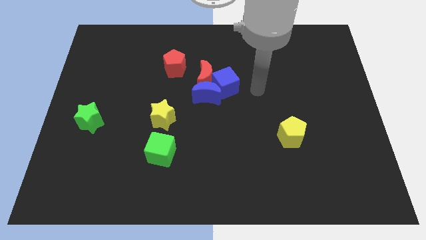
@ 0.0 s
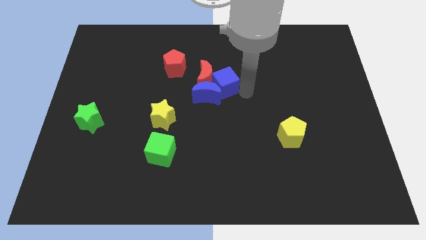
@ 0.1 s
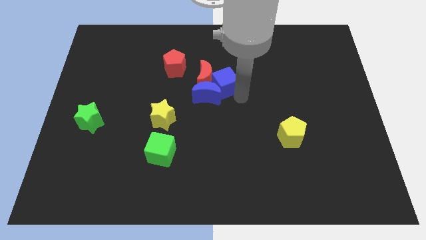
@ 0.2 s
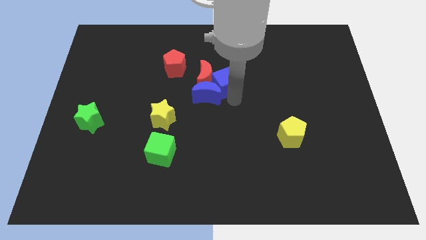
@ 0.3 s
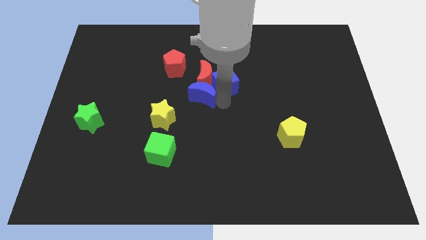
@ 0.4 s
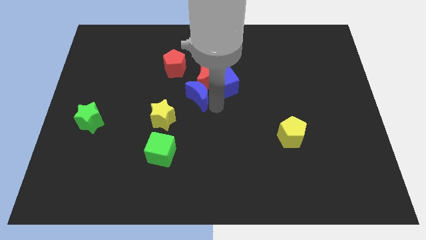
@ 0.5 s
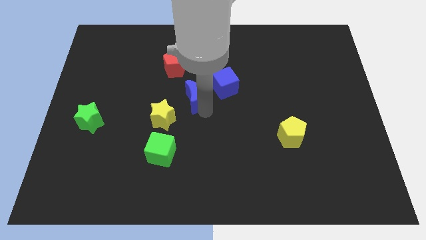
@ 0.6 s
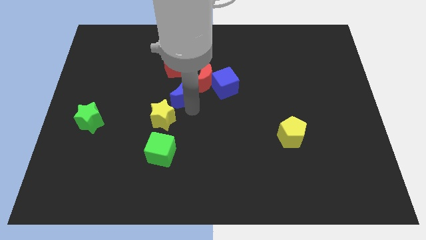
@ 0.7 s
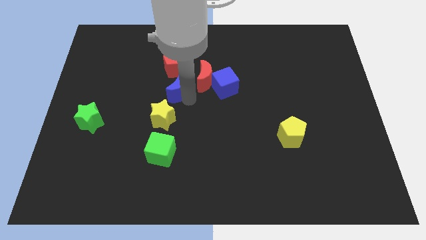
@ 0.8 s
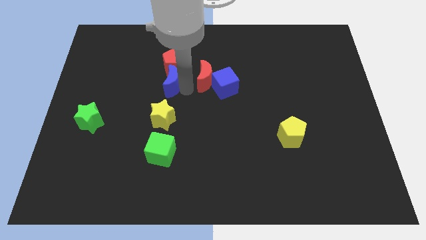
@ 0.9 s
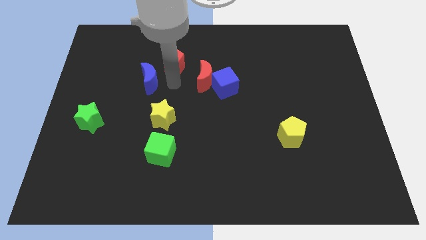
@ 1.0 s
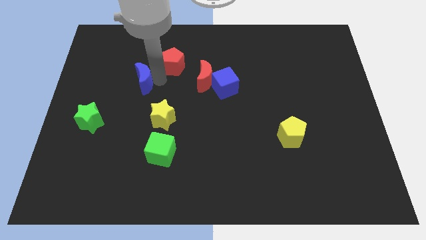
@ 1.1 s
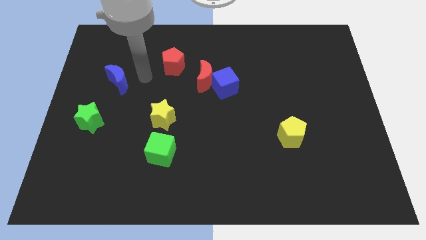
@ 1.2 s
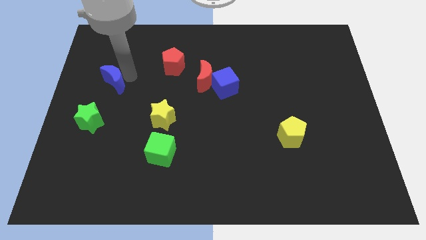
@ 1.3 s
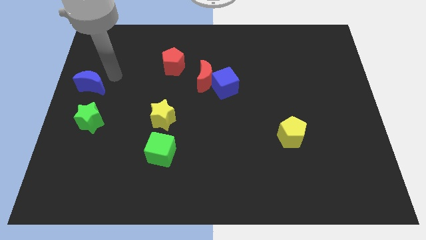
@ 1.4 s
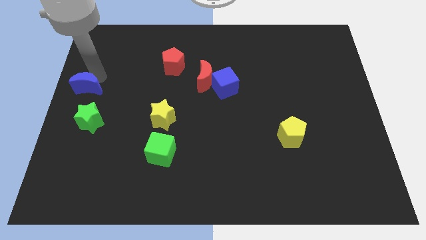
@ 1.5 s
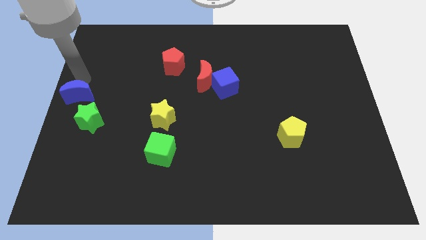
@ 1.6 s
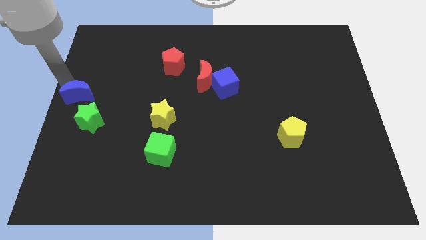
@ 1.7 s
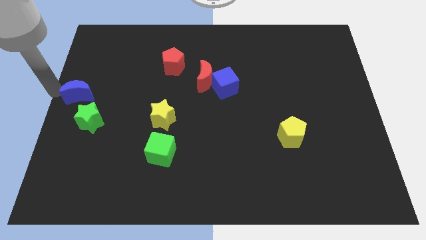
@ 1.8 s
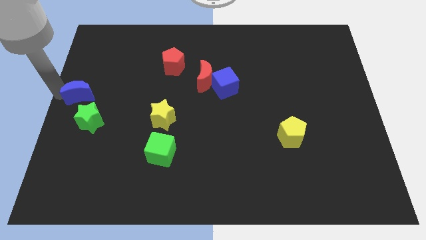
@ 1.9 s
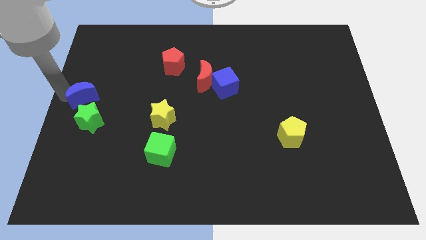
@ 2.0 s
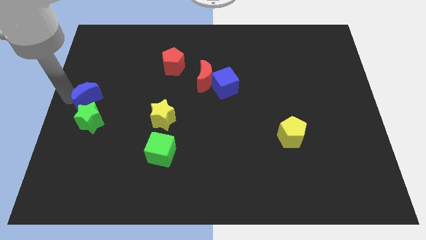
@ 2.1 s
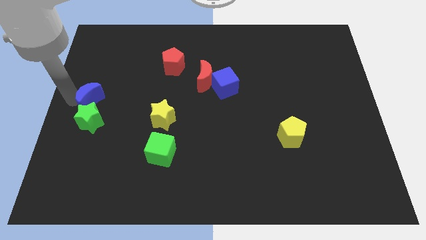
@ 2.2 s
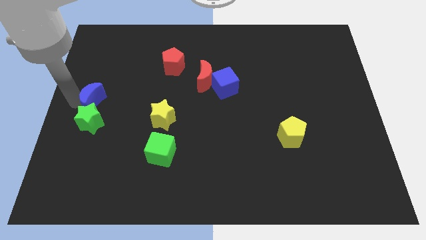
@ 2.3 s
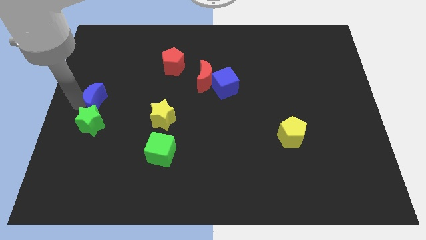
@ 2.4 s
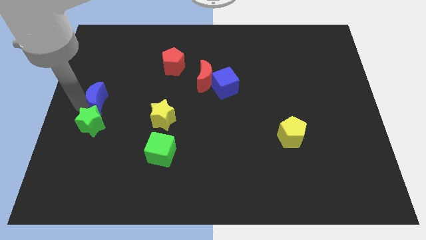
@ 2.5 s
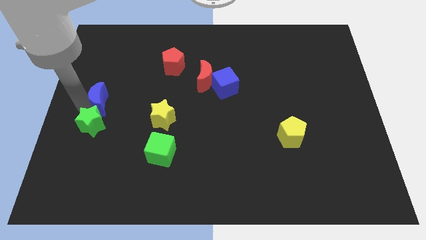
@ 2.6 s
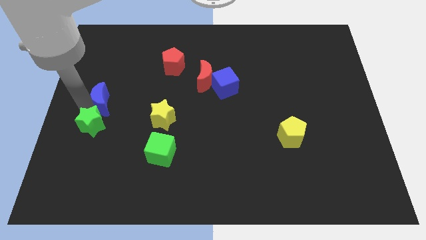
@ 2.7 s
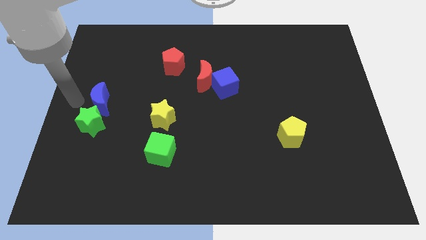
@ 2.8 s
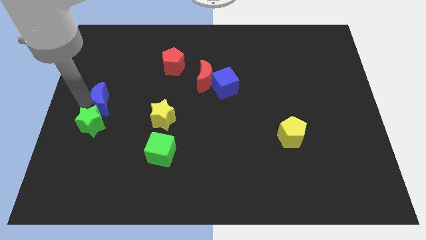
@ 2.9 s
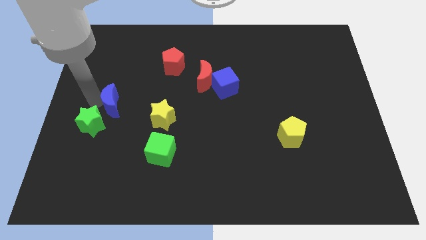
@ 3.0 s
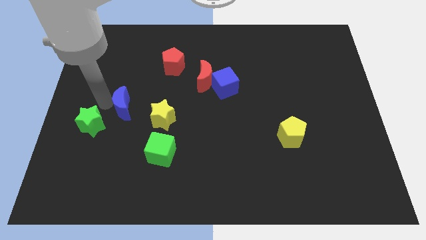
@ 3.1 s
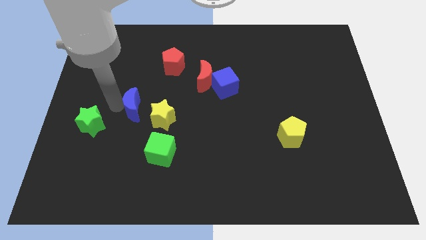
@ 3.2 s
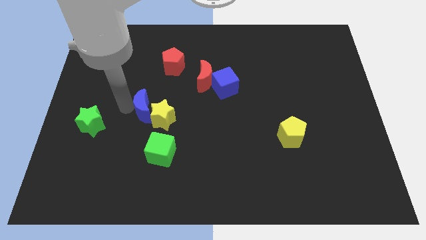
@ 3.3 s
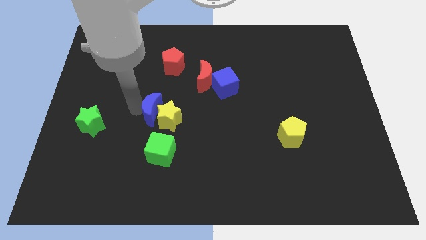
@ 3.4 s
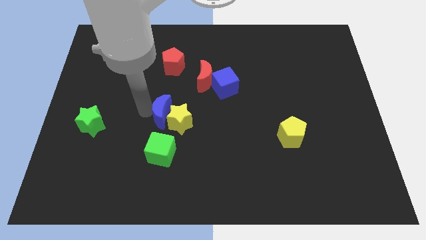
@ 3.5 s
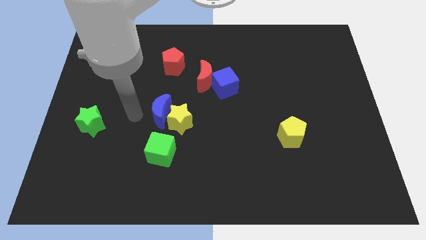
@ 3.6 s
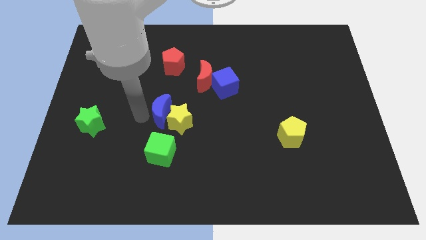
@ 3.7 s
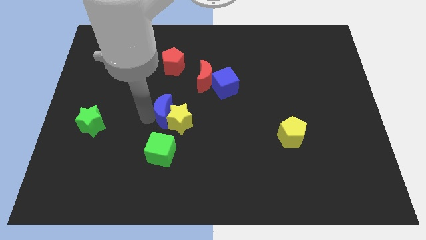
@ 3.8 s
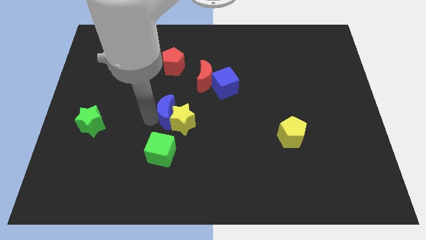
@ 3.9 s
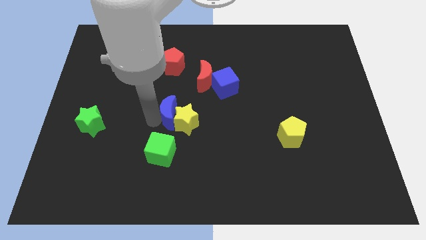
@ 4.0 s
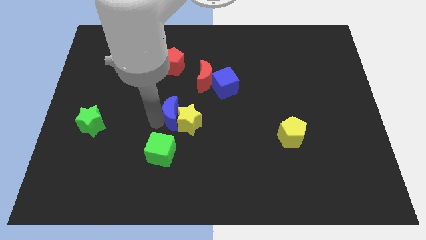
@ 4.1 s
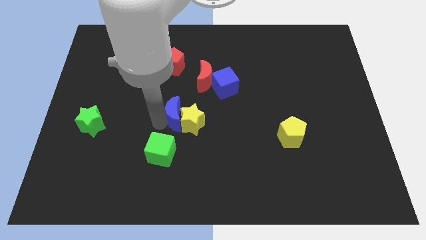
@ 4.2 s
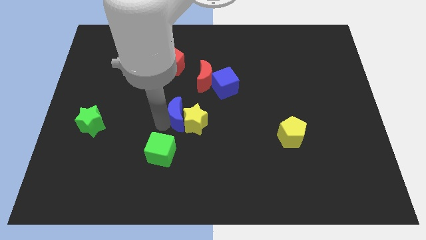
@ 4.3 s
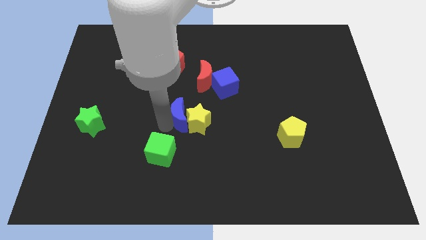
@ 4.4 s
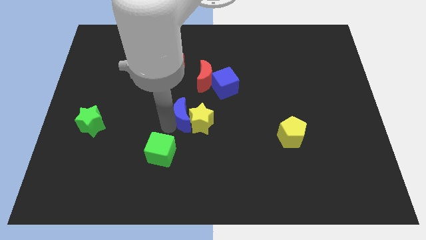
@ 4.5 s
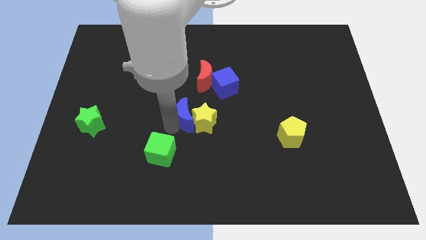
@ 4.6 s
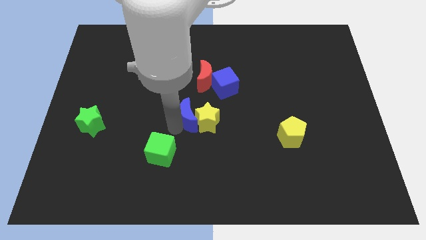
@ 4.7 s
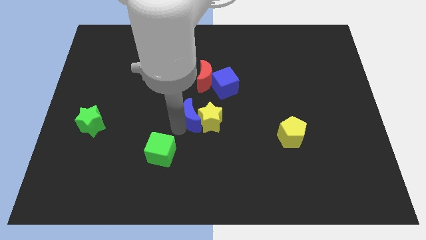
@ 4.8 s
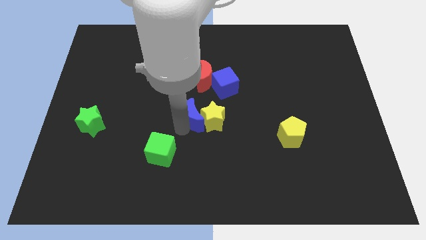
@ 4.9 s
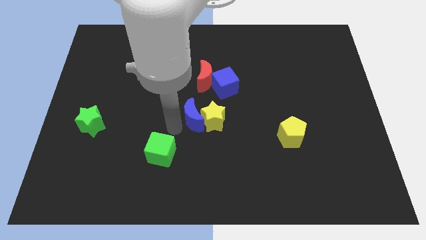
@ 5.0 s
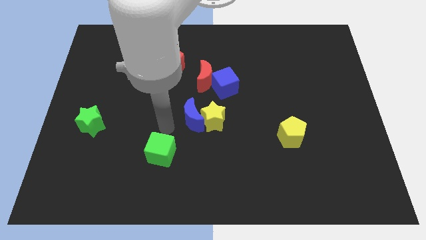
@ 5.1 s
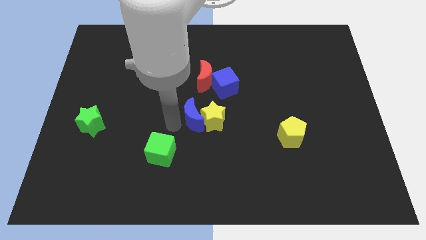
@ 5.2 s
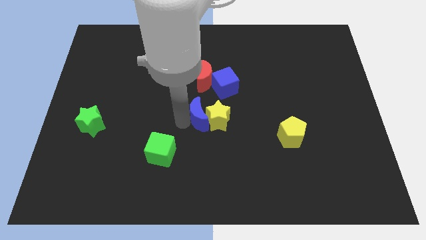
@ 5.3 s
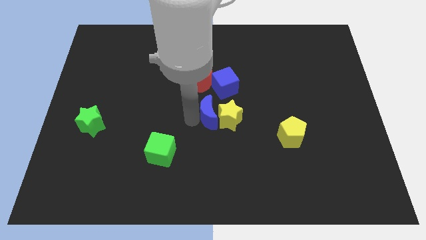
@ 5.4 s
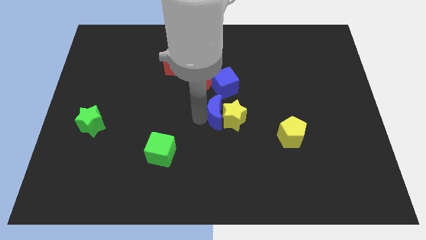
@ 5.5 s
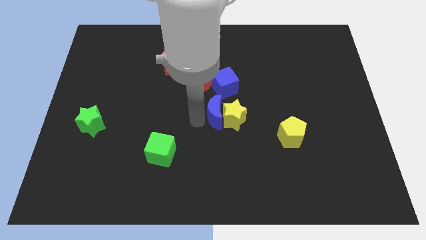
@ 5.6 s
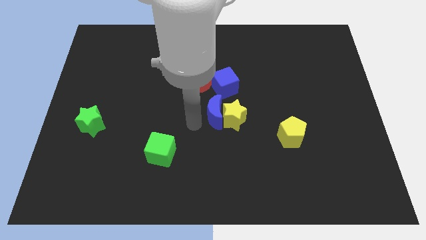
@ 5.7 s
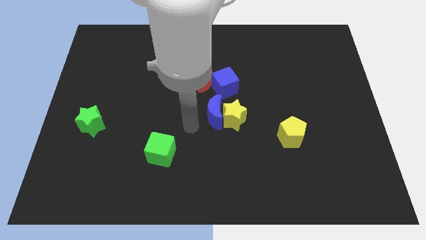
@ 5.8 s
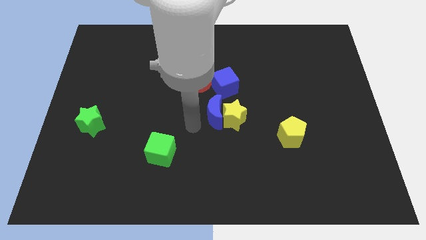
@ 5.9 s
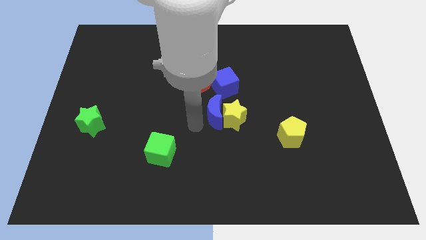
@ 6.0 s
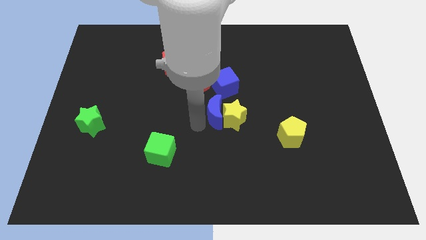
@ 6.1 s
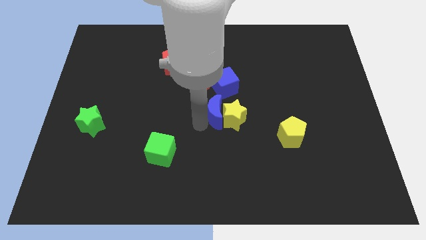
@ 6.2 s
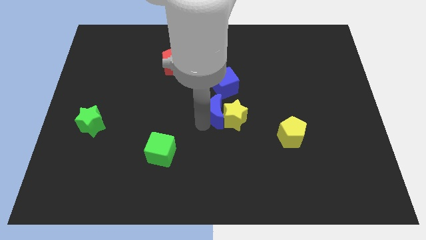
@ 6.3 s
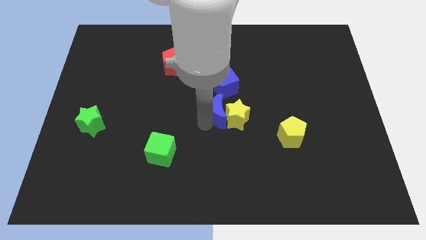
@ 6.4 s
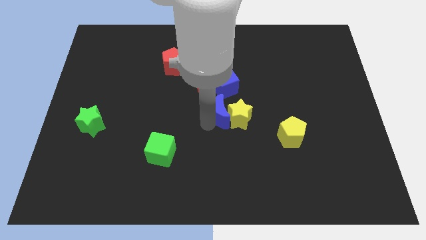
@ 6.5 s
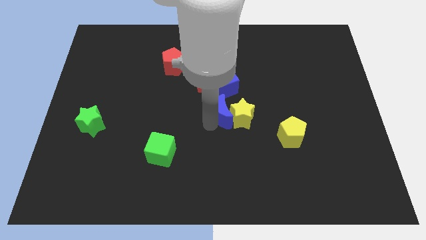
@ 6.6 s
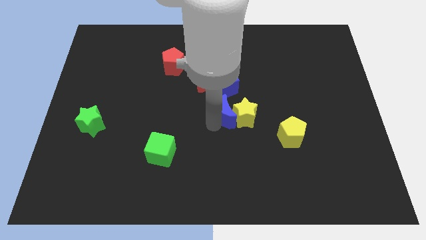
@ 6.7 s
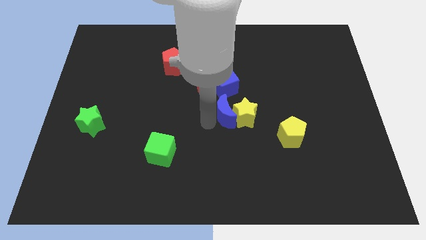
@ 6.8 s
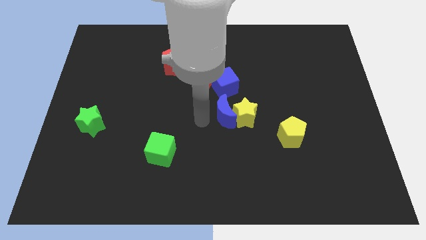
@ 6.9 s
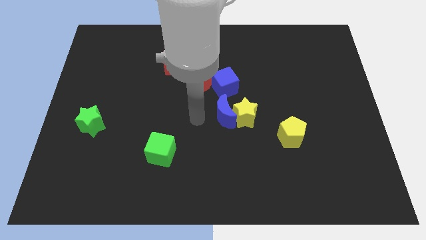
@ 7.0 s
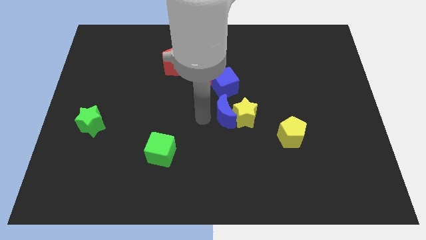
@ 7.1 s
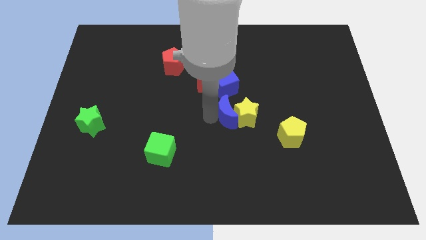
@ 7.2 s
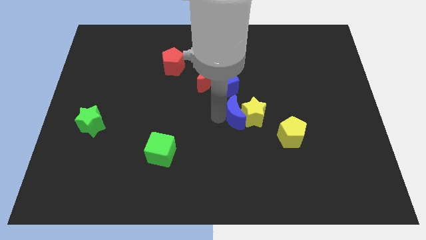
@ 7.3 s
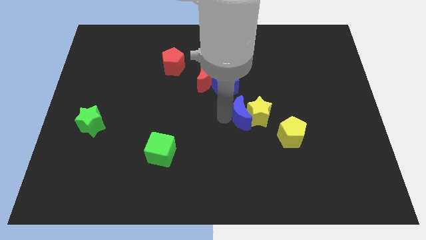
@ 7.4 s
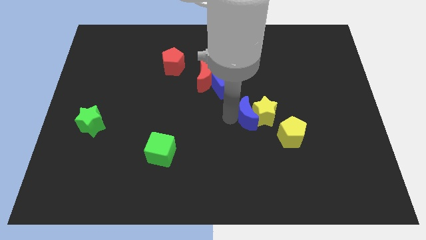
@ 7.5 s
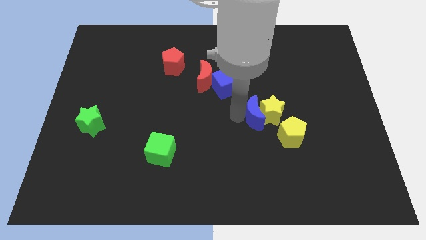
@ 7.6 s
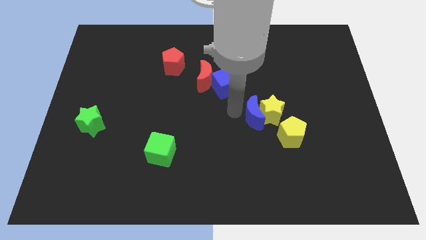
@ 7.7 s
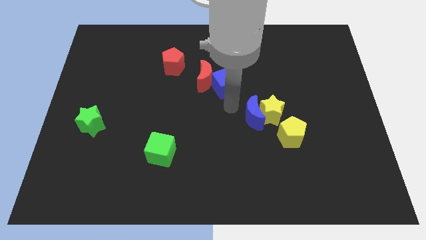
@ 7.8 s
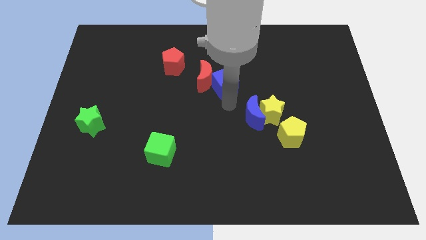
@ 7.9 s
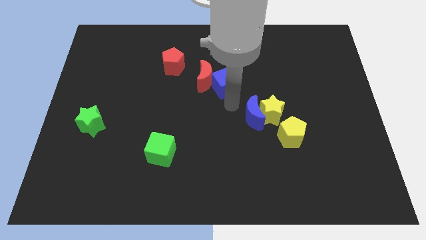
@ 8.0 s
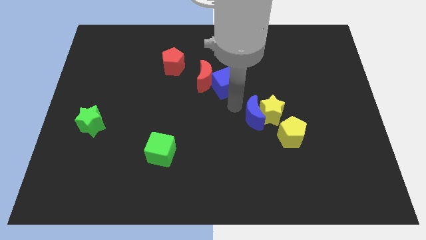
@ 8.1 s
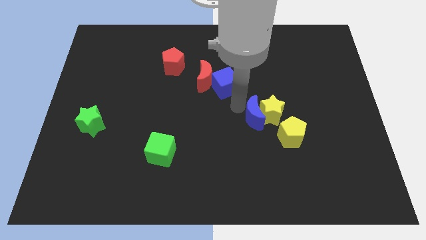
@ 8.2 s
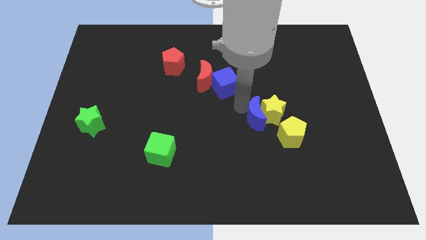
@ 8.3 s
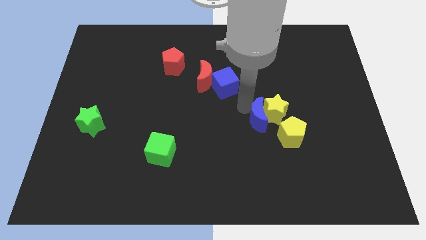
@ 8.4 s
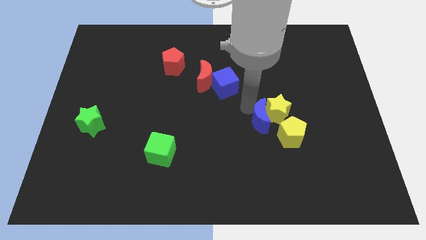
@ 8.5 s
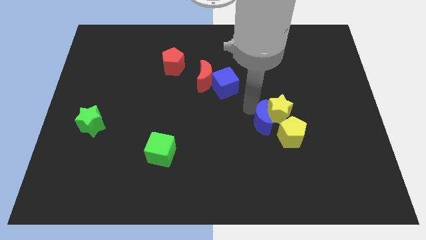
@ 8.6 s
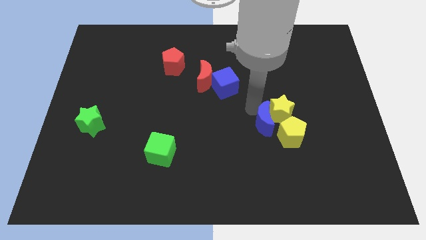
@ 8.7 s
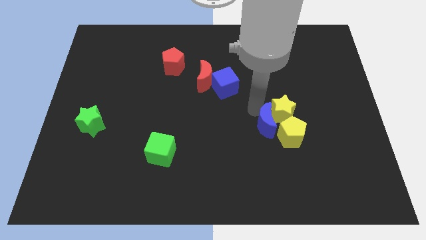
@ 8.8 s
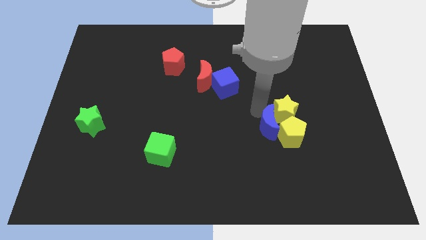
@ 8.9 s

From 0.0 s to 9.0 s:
move the blue moon next to the yellow pentagon
